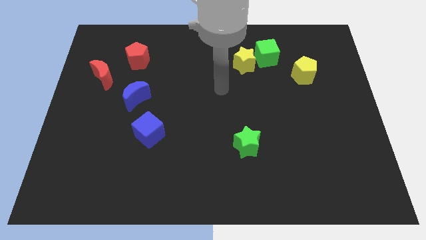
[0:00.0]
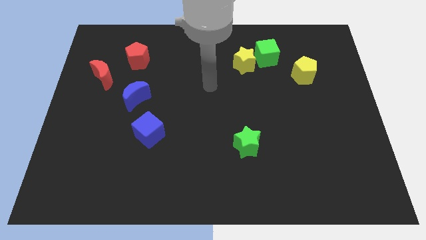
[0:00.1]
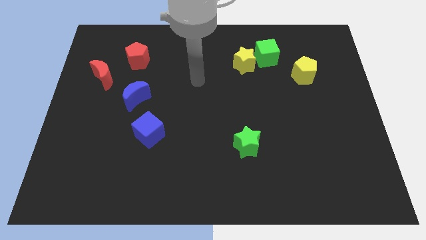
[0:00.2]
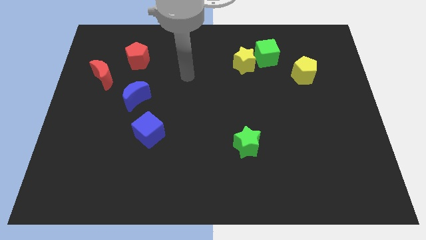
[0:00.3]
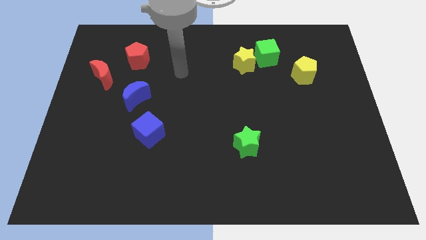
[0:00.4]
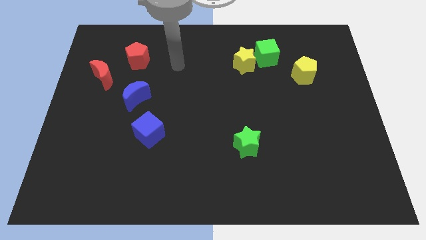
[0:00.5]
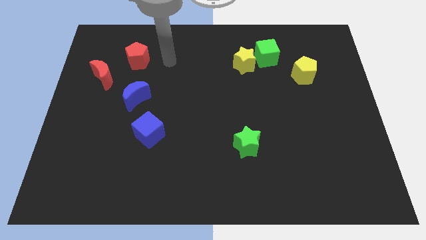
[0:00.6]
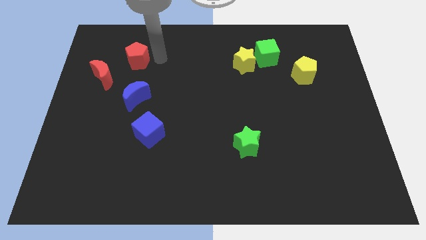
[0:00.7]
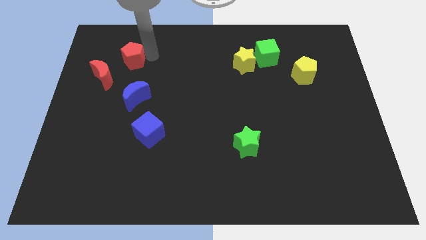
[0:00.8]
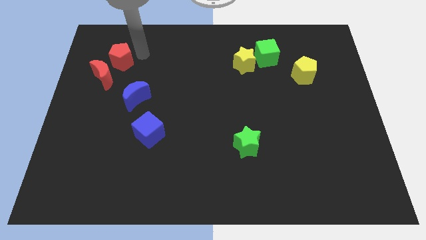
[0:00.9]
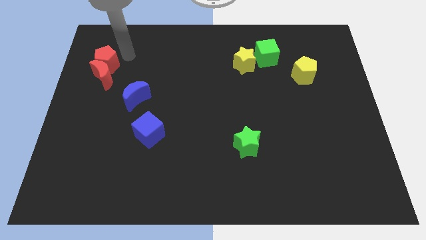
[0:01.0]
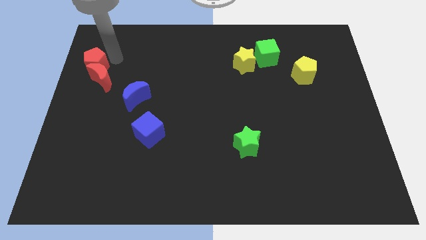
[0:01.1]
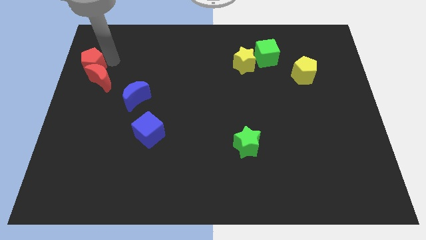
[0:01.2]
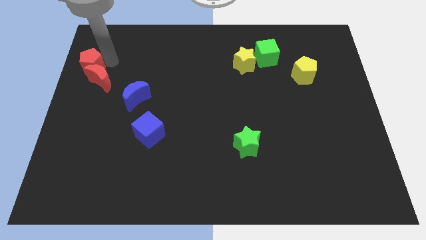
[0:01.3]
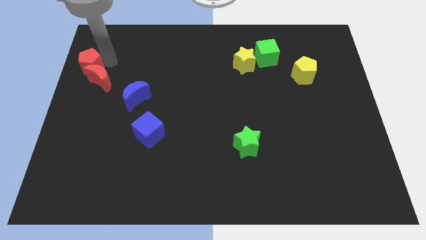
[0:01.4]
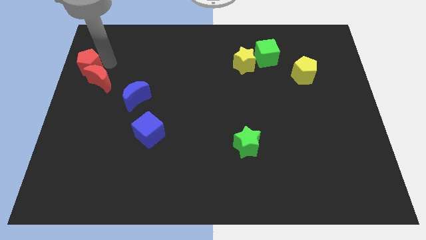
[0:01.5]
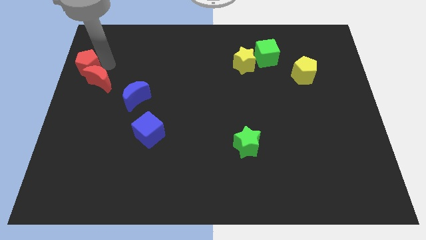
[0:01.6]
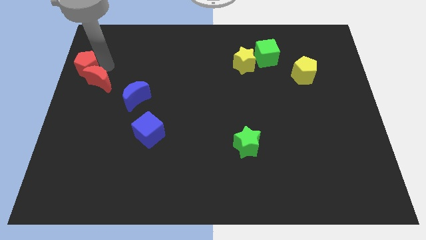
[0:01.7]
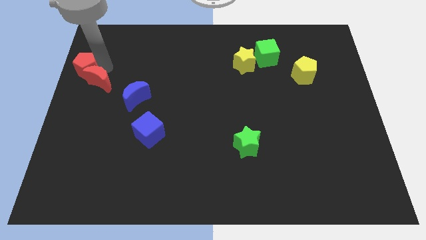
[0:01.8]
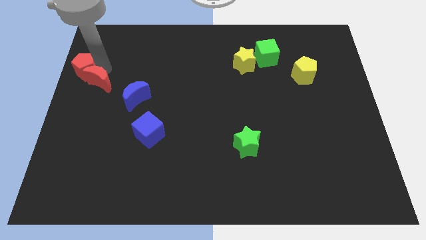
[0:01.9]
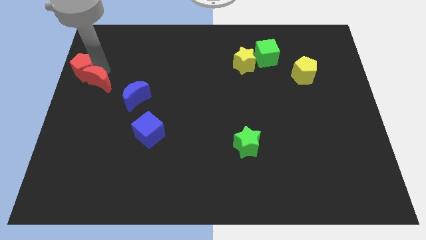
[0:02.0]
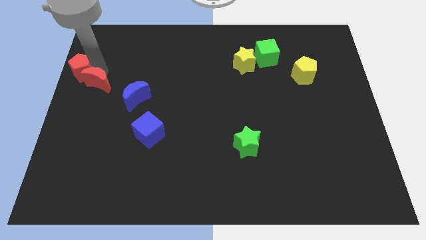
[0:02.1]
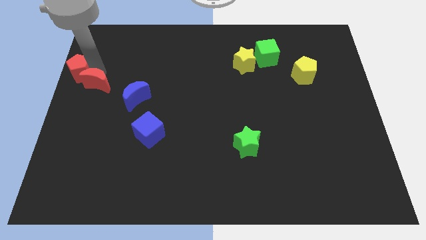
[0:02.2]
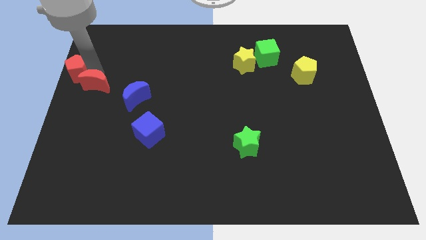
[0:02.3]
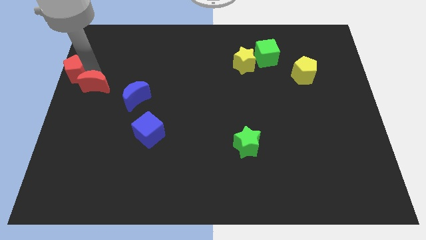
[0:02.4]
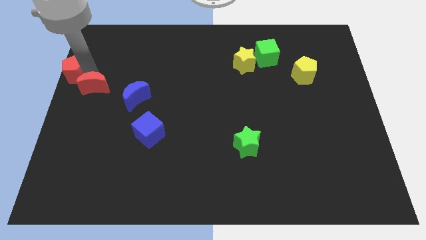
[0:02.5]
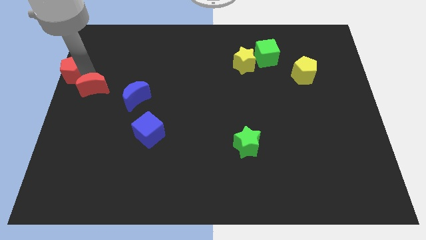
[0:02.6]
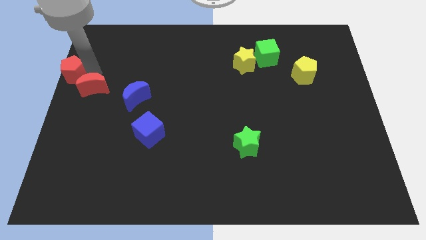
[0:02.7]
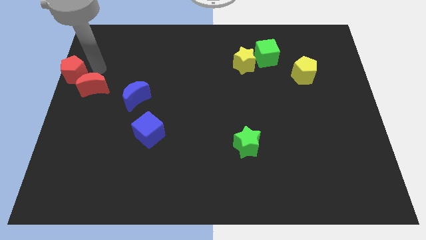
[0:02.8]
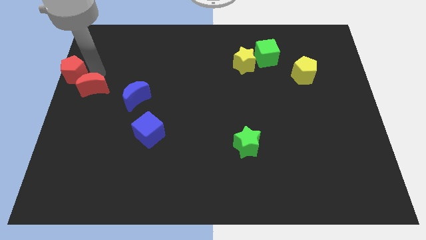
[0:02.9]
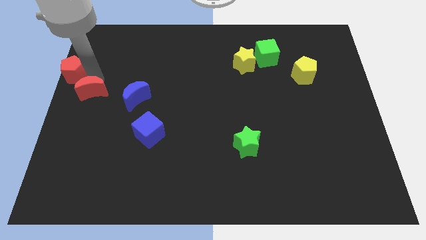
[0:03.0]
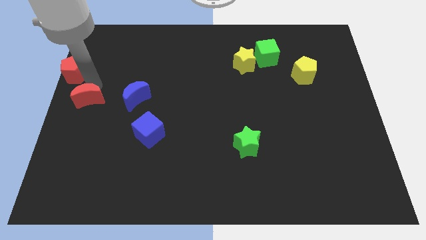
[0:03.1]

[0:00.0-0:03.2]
slide the red moon slightly downwards

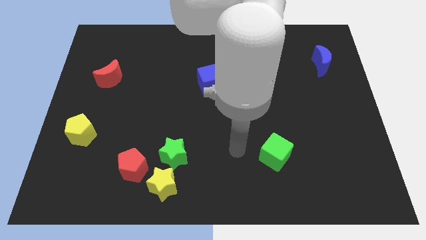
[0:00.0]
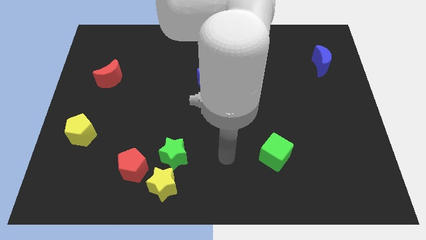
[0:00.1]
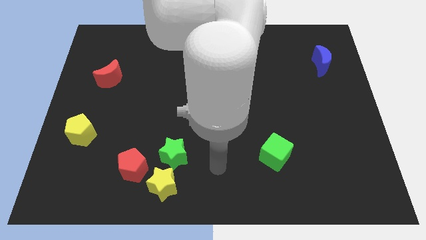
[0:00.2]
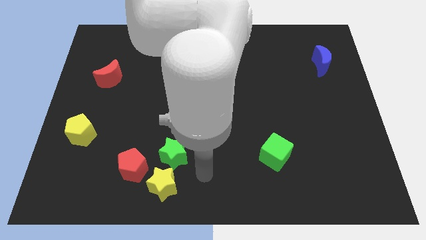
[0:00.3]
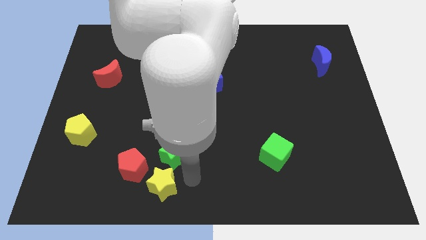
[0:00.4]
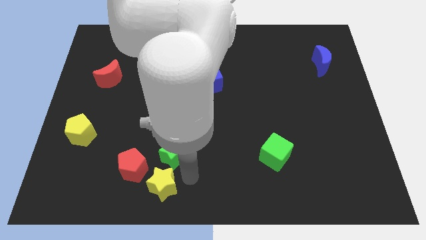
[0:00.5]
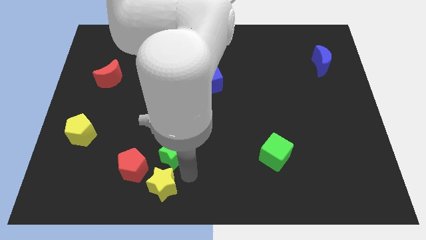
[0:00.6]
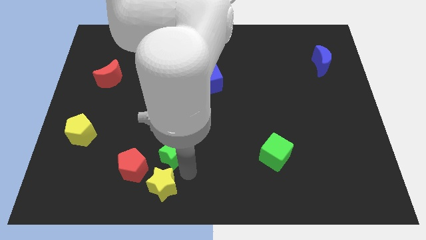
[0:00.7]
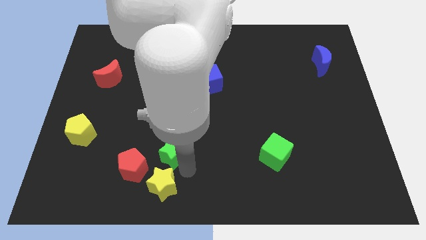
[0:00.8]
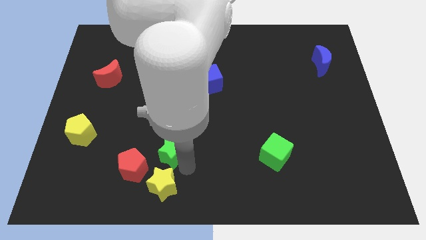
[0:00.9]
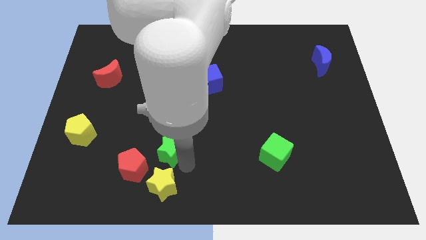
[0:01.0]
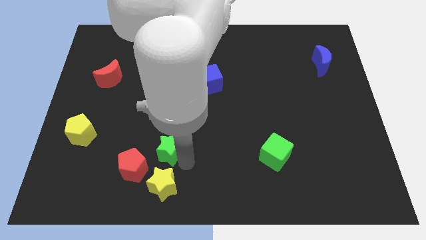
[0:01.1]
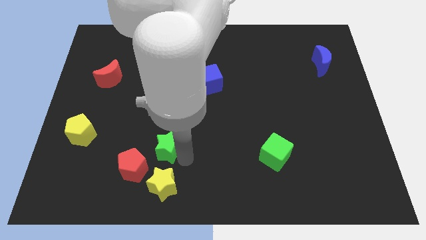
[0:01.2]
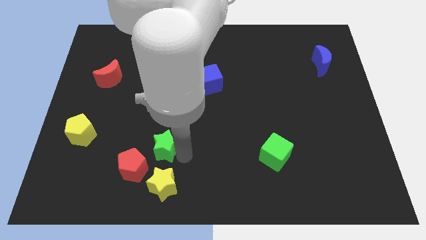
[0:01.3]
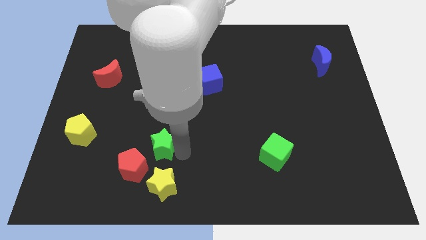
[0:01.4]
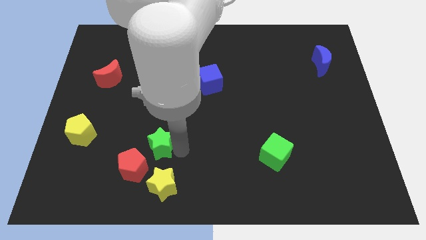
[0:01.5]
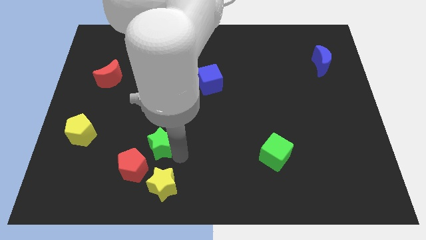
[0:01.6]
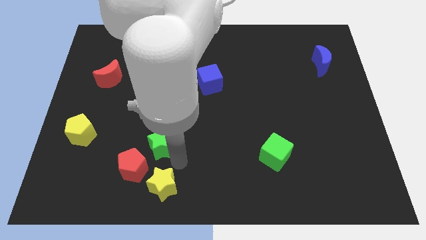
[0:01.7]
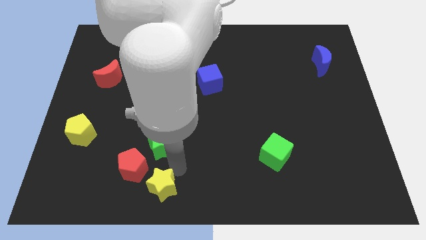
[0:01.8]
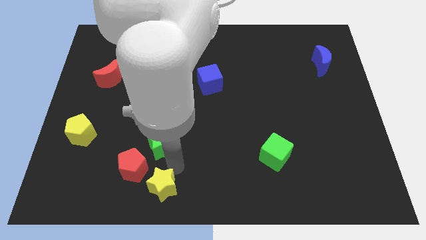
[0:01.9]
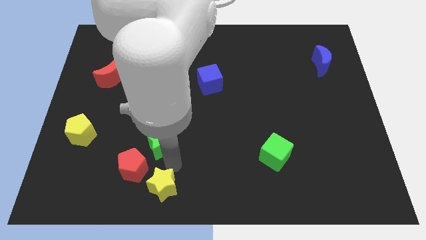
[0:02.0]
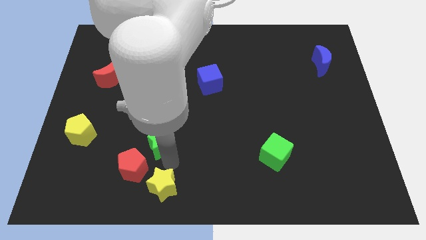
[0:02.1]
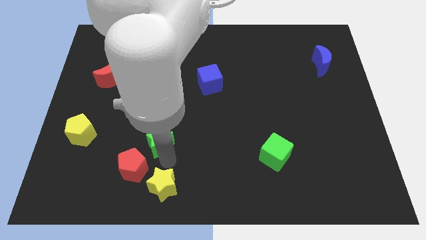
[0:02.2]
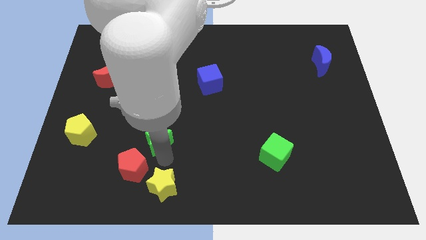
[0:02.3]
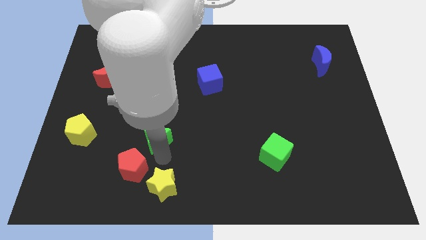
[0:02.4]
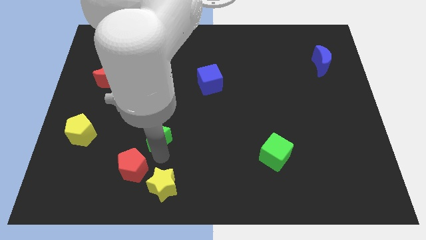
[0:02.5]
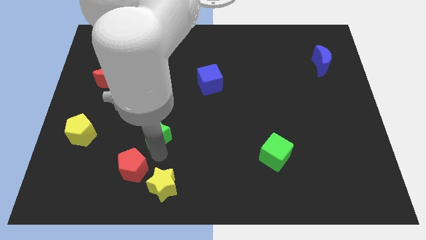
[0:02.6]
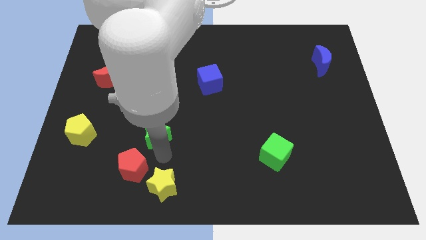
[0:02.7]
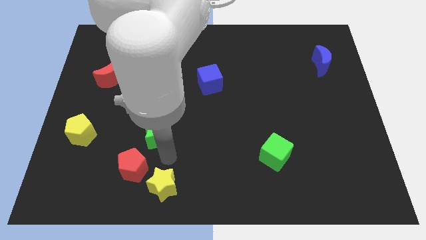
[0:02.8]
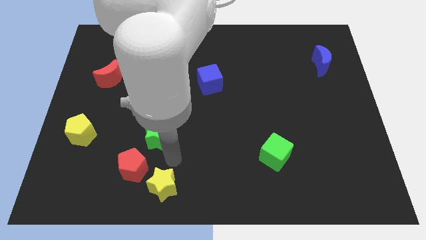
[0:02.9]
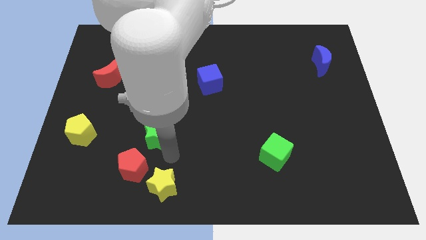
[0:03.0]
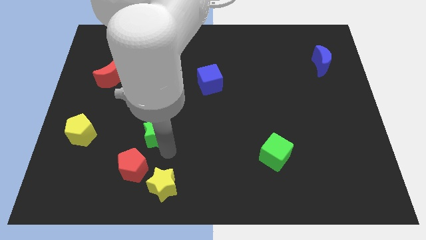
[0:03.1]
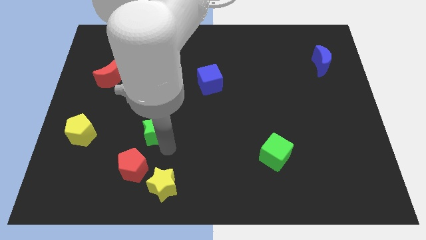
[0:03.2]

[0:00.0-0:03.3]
push the green star a bit diagonally up and to the left

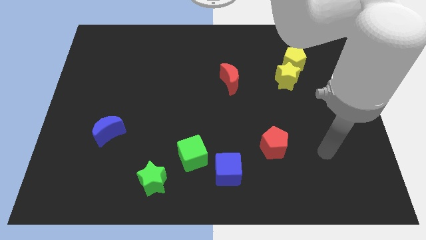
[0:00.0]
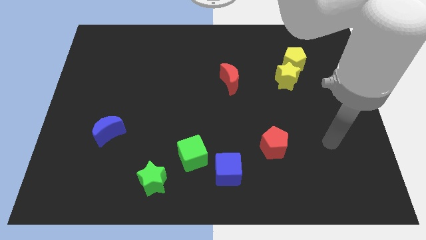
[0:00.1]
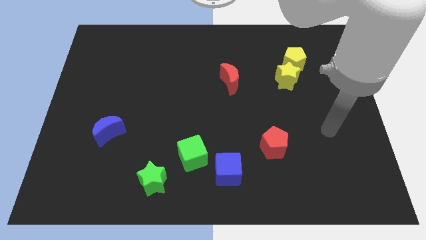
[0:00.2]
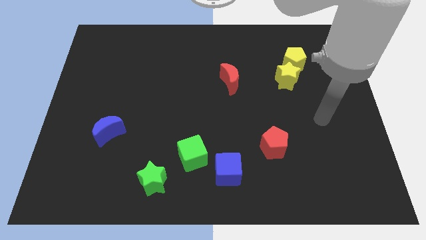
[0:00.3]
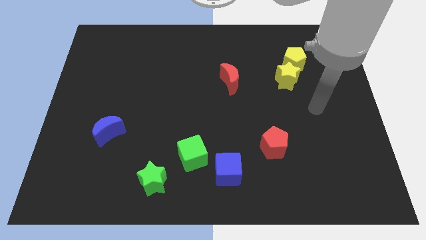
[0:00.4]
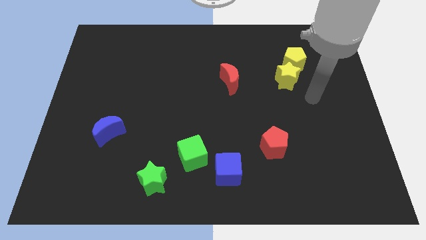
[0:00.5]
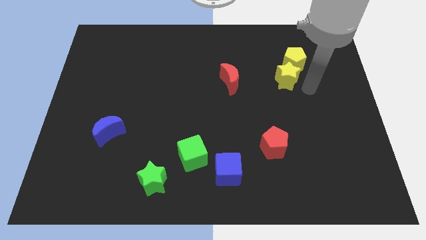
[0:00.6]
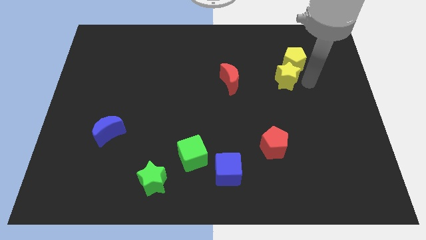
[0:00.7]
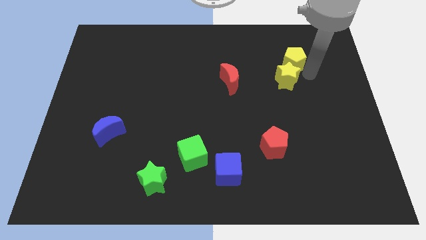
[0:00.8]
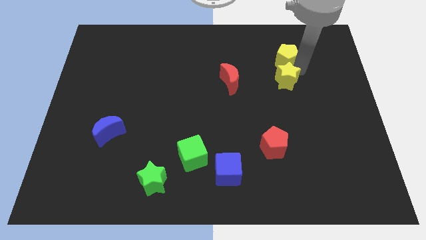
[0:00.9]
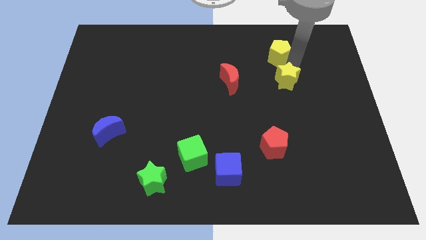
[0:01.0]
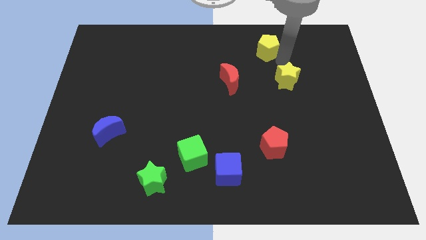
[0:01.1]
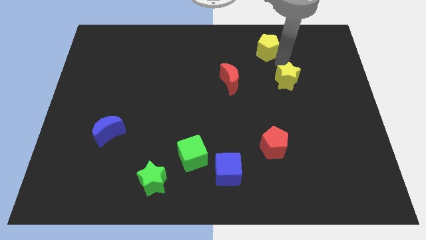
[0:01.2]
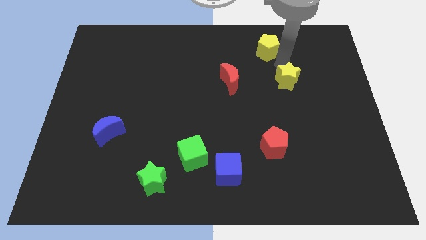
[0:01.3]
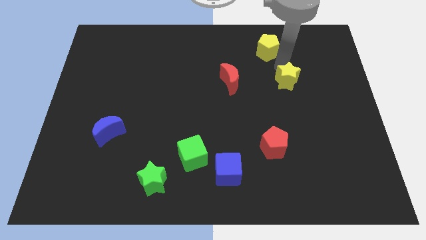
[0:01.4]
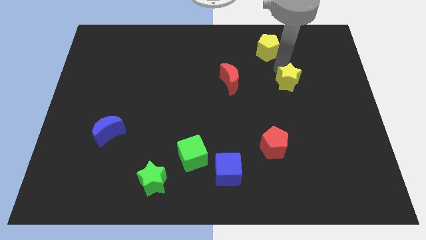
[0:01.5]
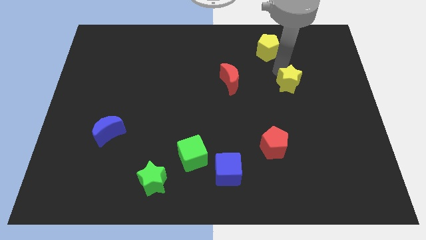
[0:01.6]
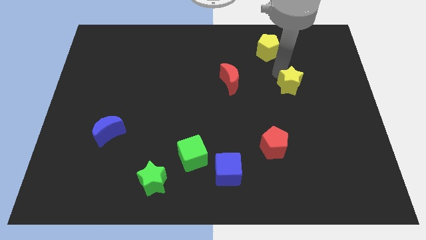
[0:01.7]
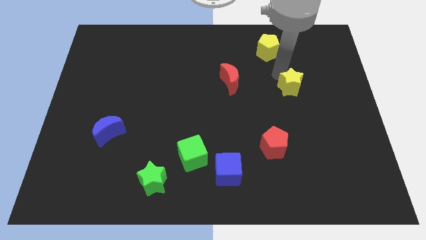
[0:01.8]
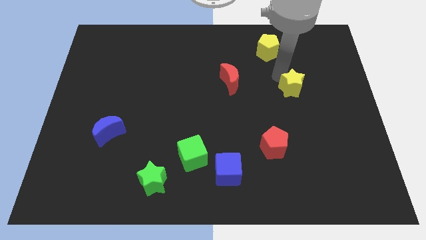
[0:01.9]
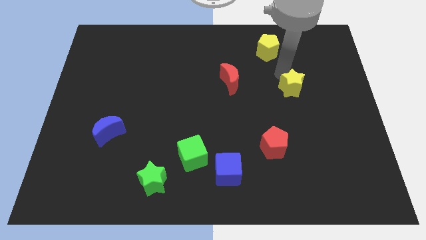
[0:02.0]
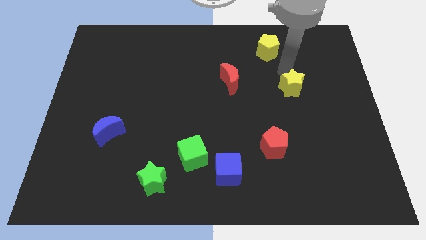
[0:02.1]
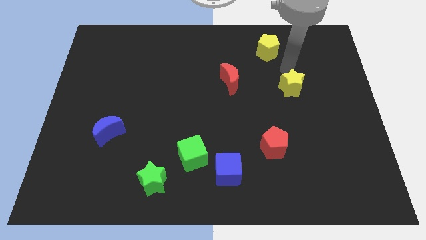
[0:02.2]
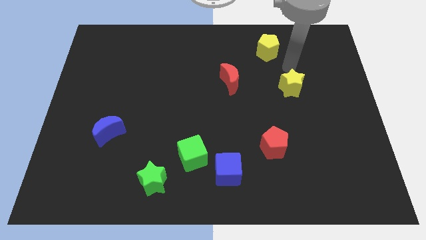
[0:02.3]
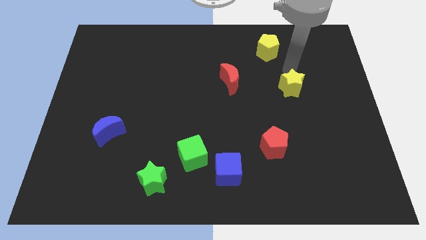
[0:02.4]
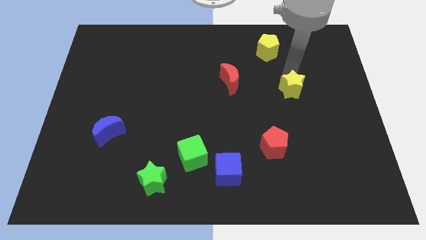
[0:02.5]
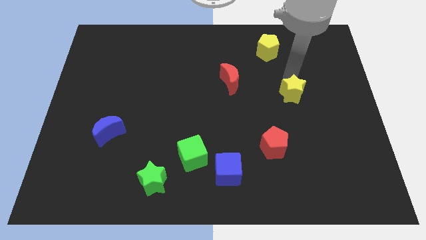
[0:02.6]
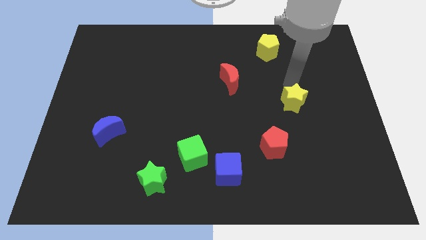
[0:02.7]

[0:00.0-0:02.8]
slide the yellow star a bit downwards
